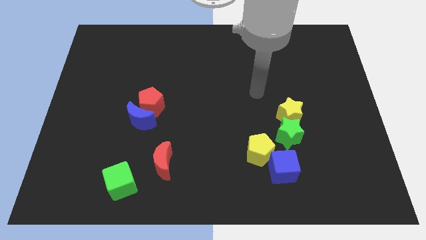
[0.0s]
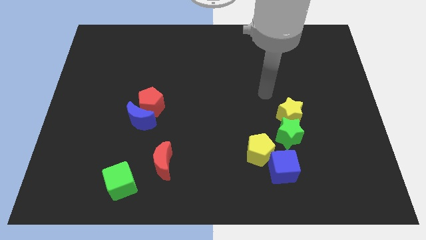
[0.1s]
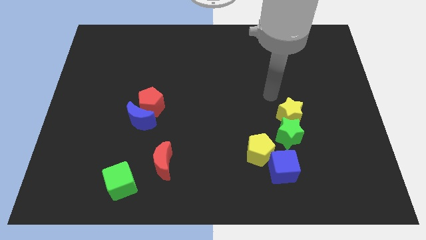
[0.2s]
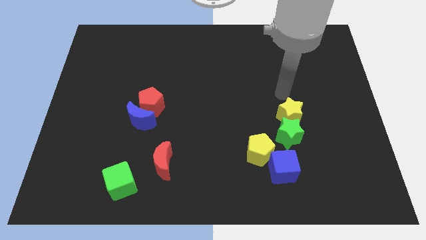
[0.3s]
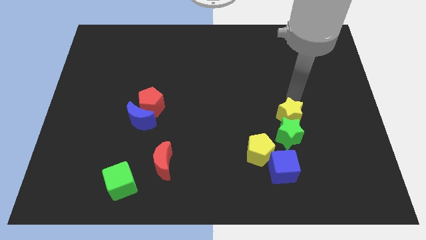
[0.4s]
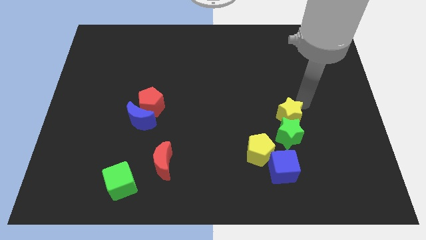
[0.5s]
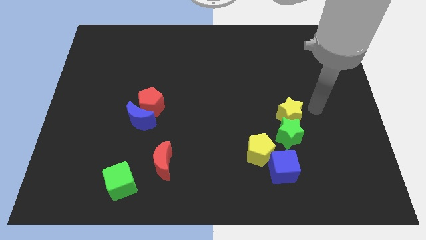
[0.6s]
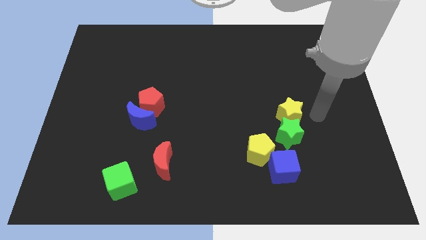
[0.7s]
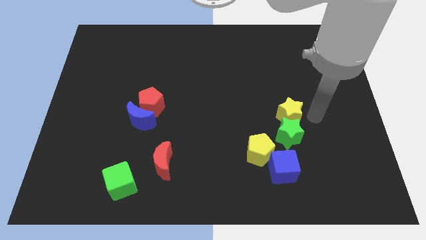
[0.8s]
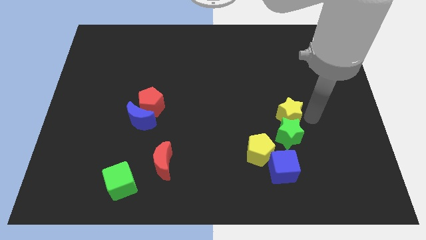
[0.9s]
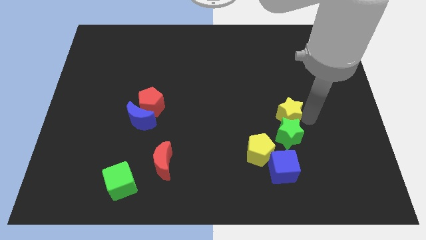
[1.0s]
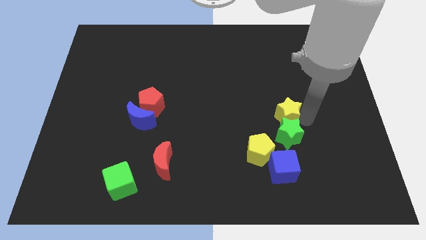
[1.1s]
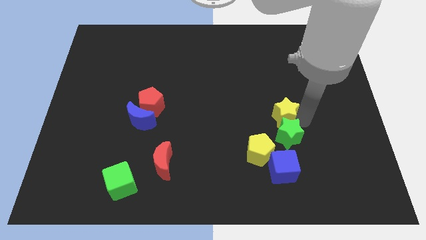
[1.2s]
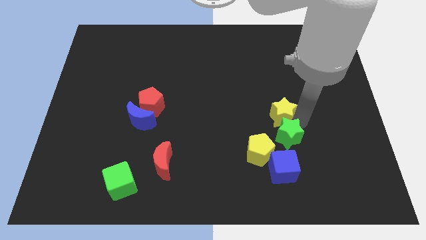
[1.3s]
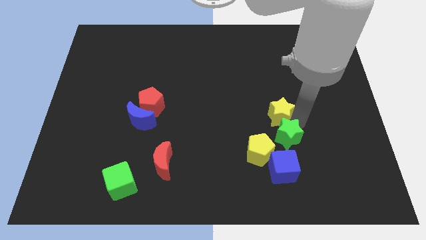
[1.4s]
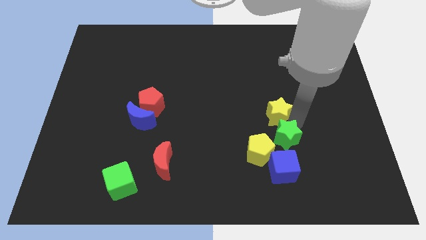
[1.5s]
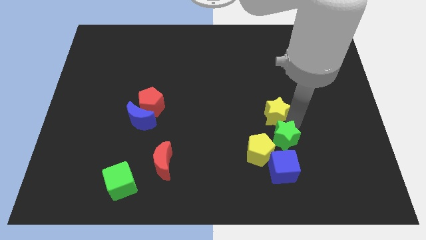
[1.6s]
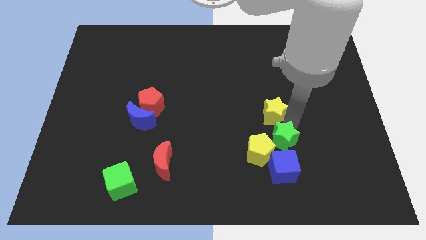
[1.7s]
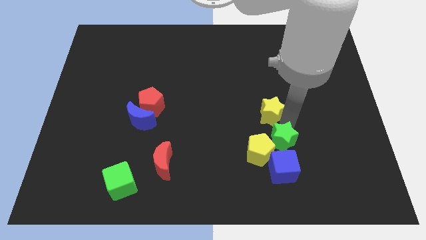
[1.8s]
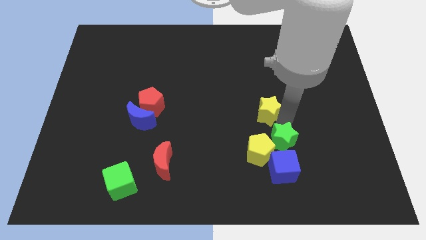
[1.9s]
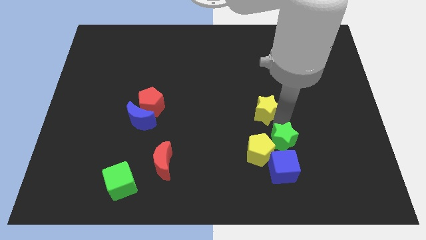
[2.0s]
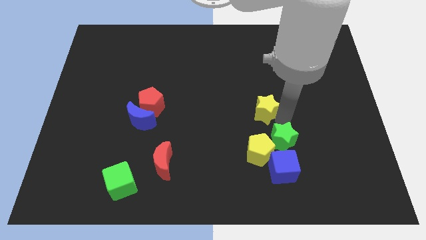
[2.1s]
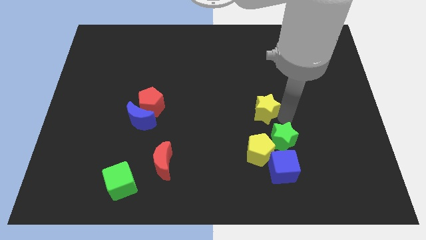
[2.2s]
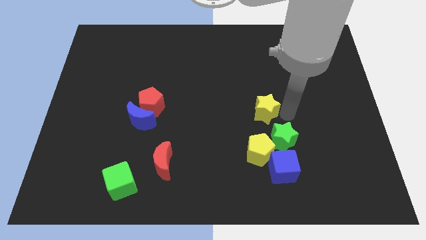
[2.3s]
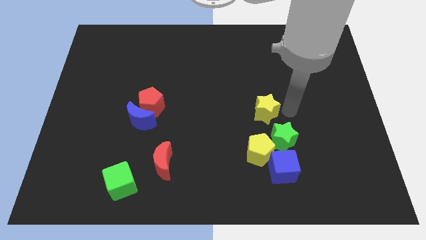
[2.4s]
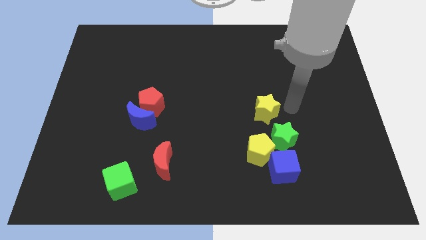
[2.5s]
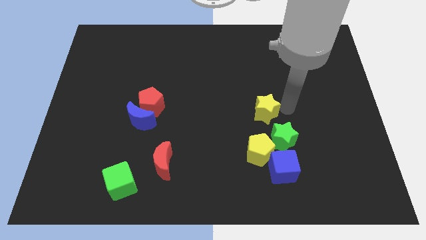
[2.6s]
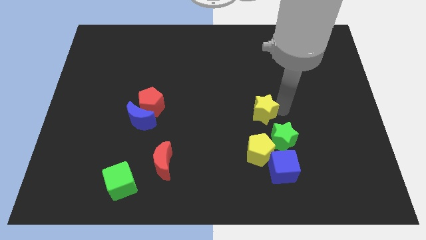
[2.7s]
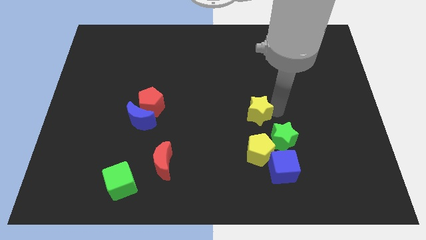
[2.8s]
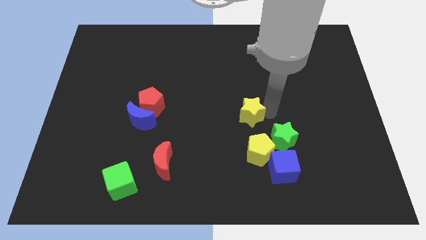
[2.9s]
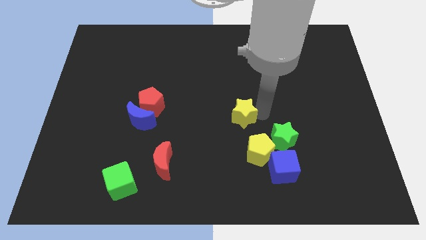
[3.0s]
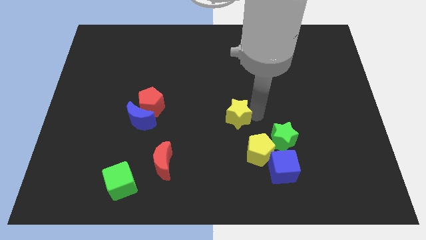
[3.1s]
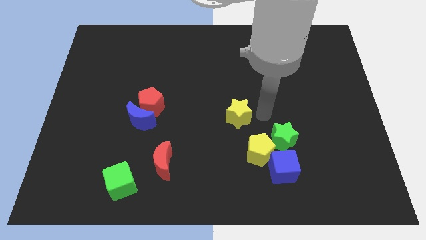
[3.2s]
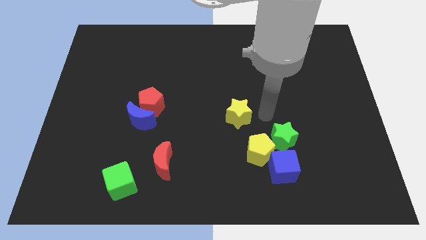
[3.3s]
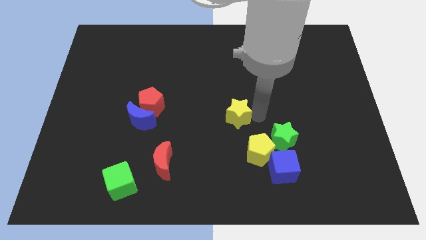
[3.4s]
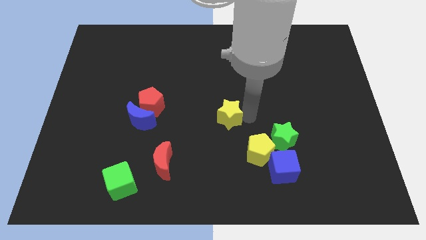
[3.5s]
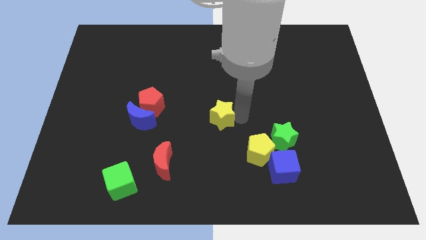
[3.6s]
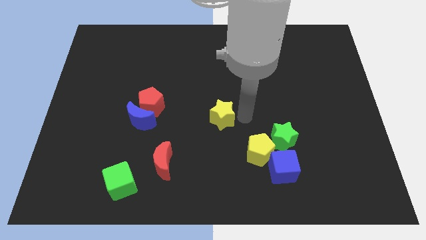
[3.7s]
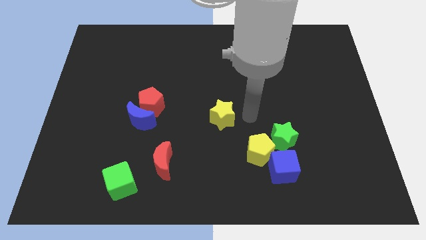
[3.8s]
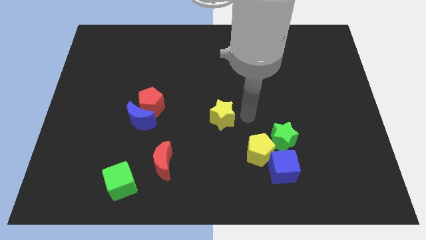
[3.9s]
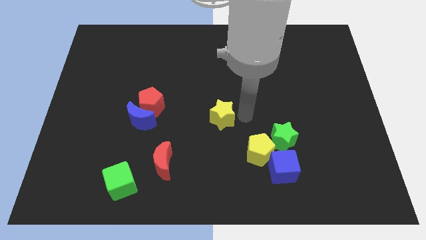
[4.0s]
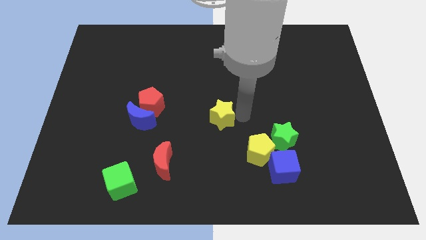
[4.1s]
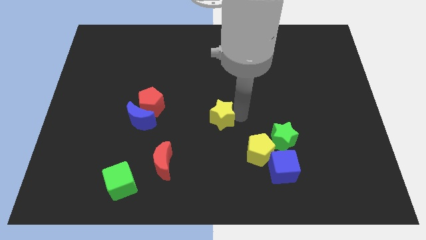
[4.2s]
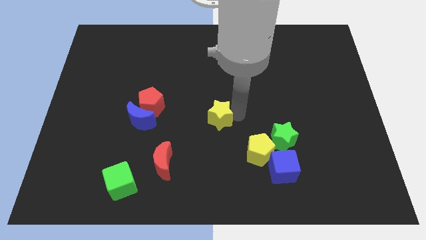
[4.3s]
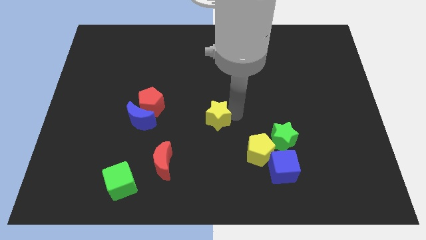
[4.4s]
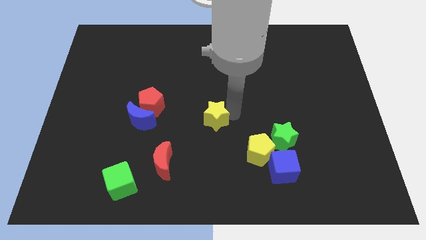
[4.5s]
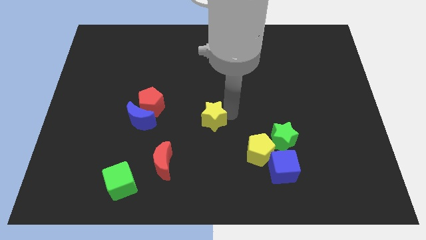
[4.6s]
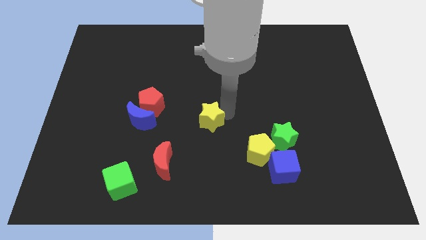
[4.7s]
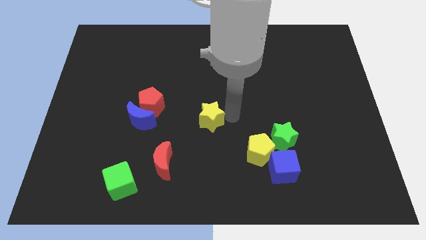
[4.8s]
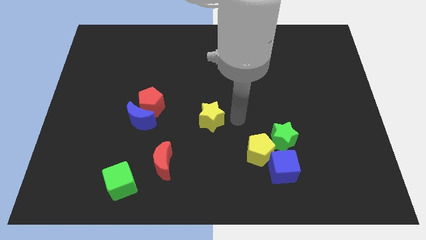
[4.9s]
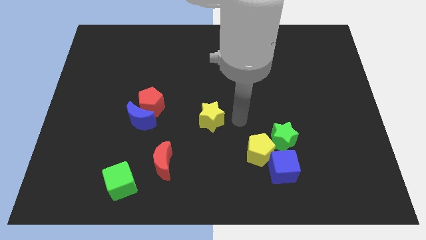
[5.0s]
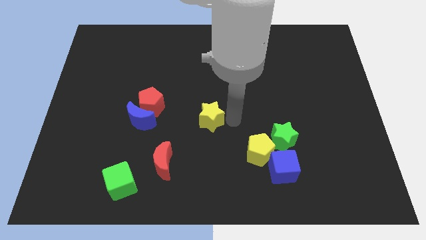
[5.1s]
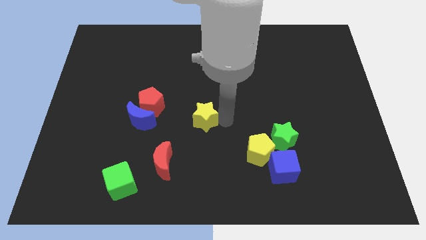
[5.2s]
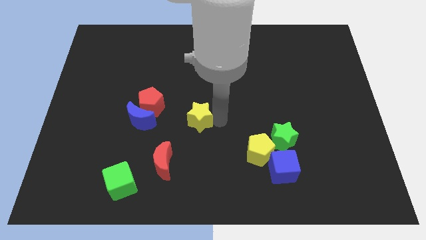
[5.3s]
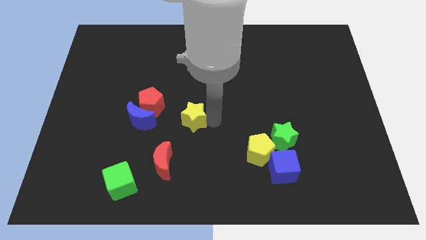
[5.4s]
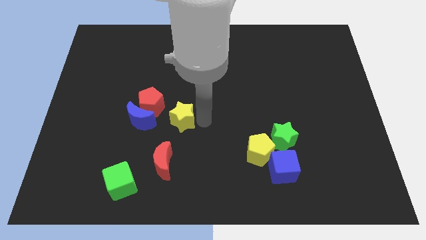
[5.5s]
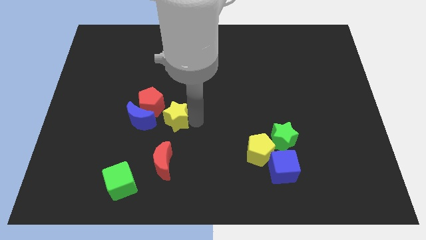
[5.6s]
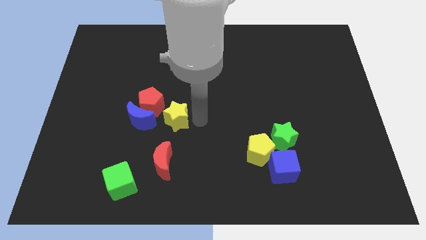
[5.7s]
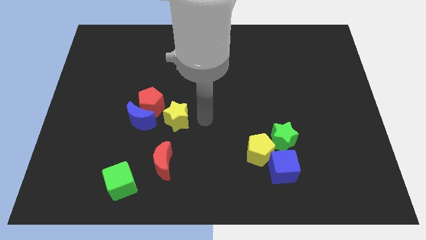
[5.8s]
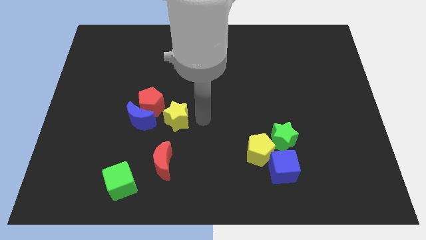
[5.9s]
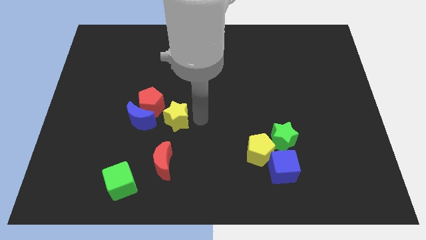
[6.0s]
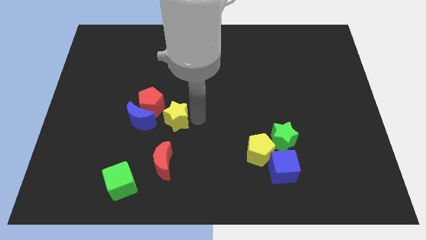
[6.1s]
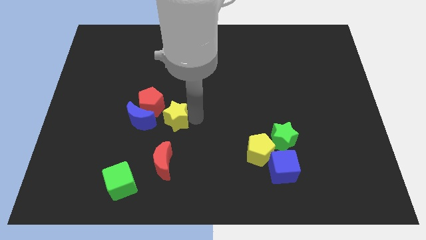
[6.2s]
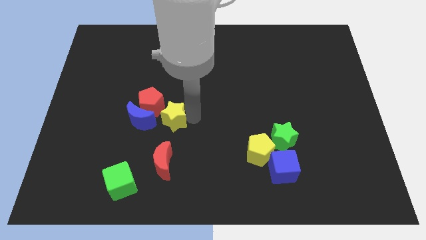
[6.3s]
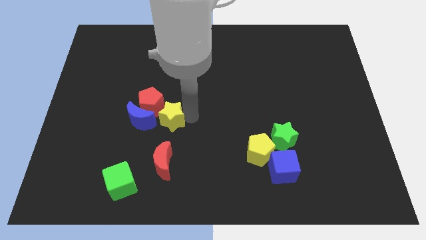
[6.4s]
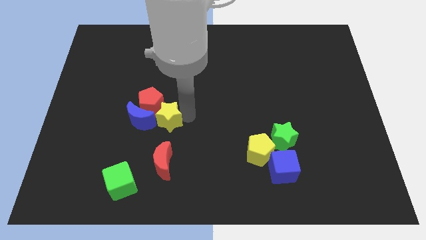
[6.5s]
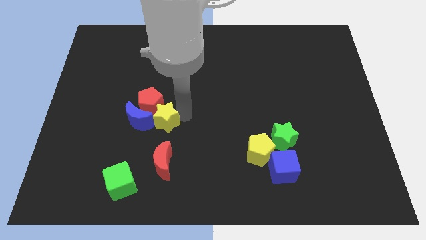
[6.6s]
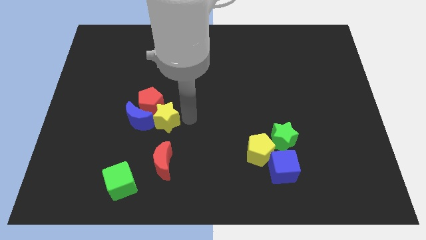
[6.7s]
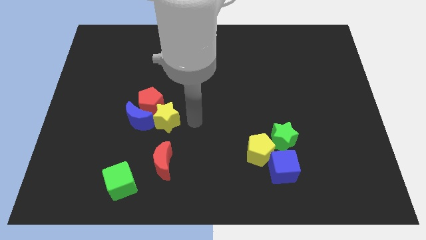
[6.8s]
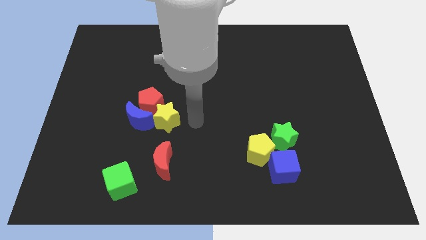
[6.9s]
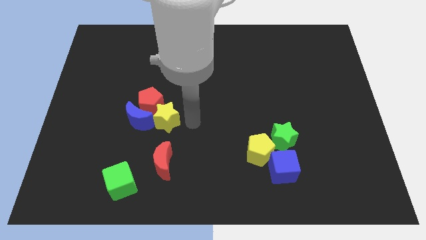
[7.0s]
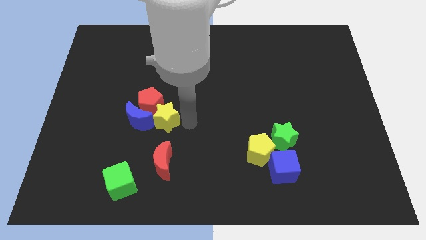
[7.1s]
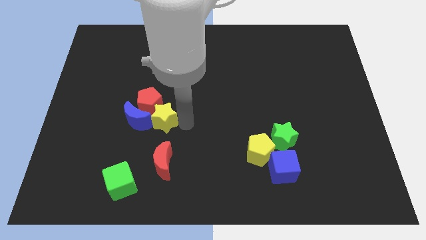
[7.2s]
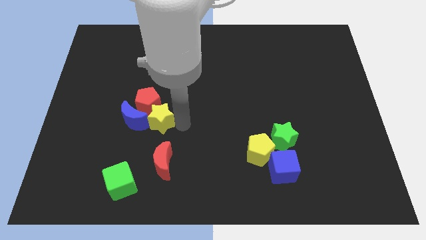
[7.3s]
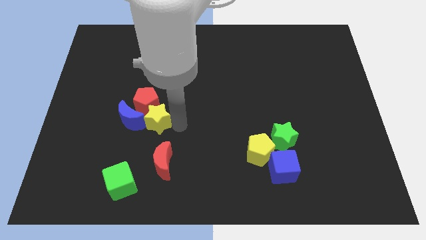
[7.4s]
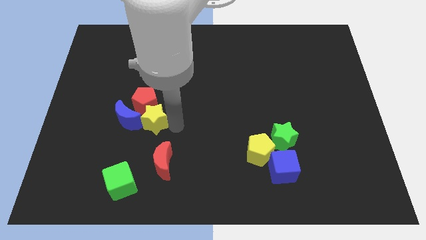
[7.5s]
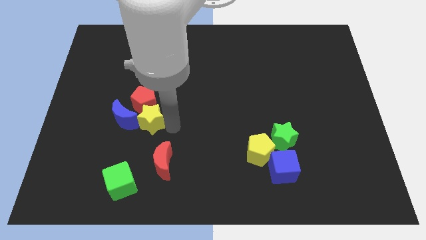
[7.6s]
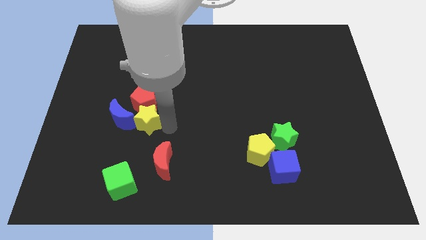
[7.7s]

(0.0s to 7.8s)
move the yellow star next to the blue moon
